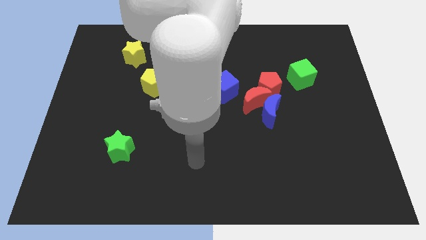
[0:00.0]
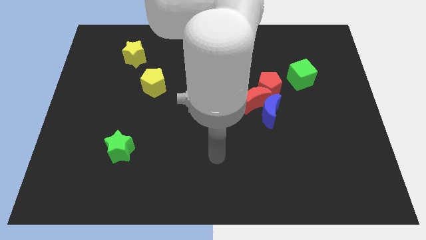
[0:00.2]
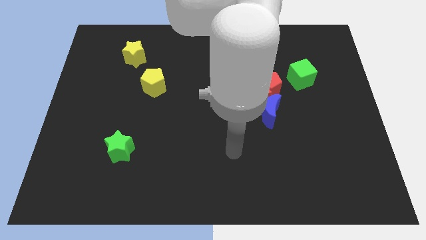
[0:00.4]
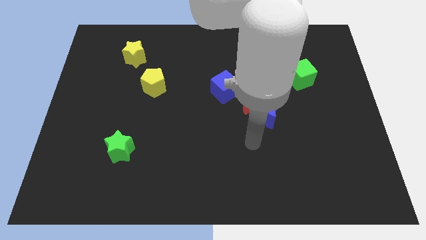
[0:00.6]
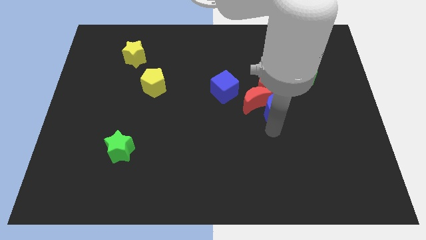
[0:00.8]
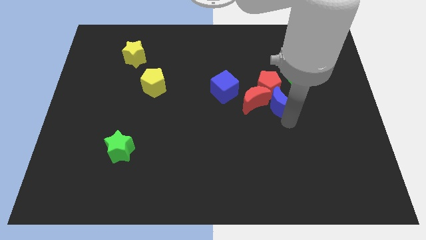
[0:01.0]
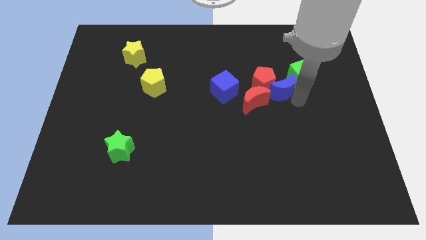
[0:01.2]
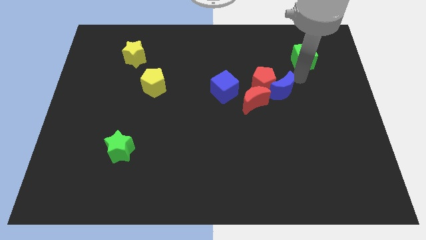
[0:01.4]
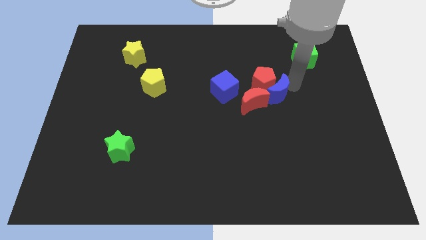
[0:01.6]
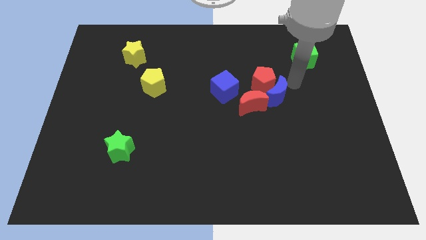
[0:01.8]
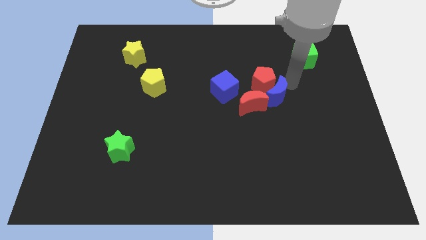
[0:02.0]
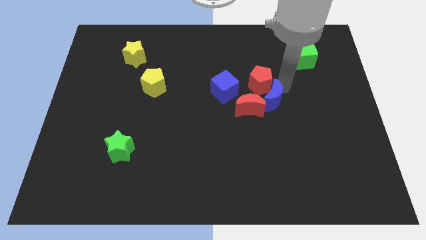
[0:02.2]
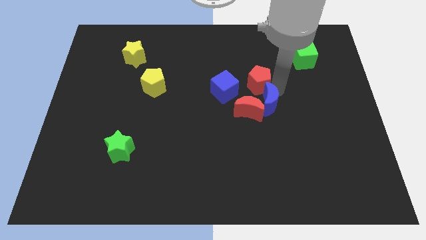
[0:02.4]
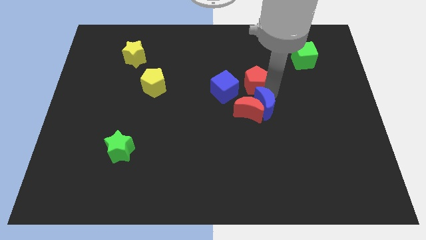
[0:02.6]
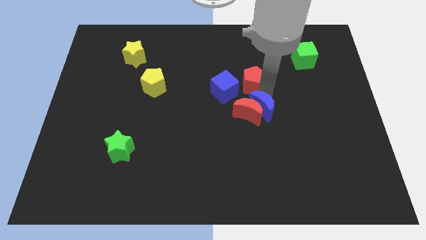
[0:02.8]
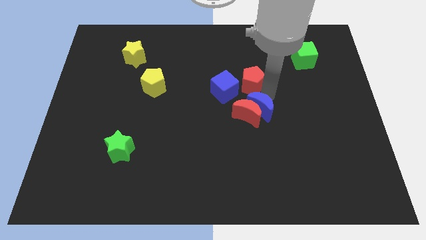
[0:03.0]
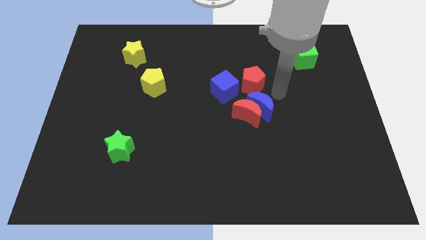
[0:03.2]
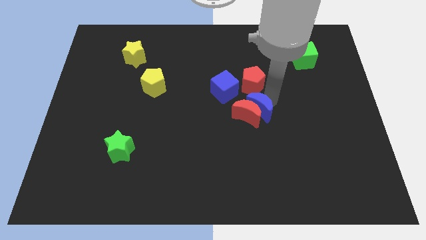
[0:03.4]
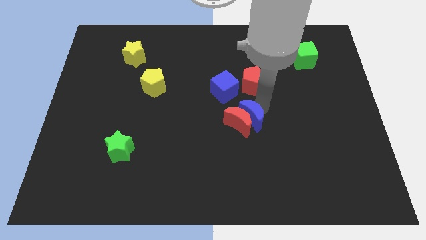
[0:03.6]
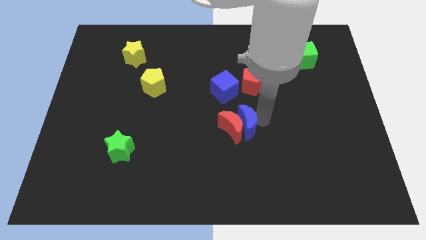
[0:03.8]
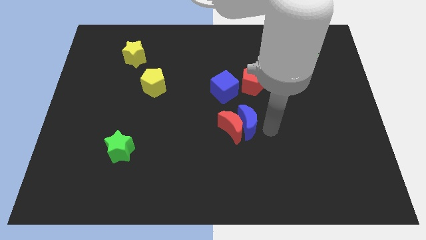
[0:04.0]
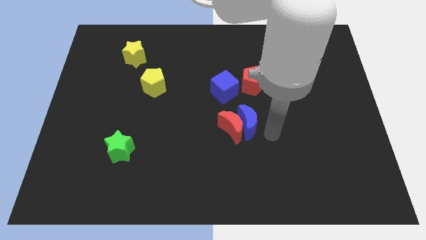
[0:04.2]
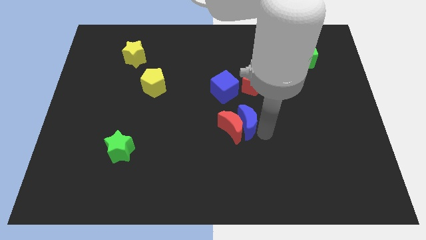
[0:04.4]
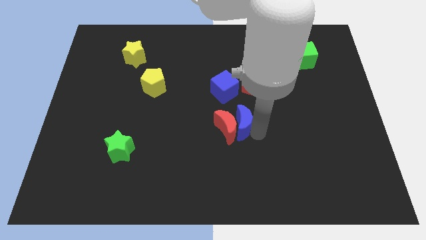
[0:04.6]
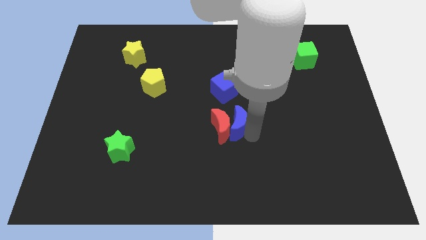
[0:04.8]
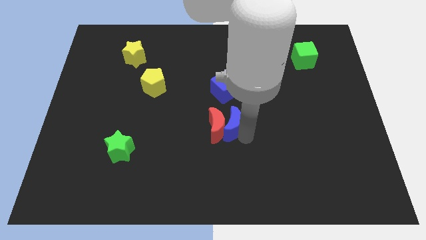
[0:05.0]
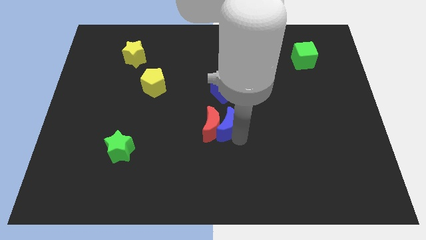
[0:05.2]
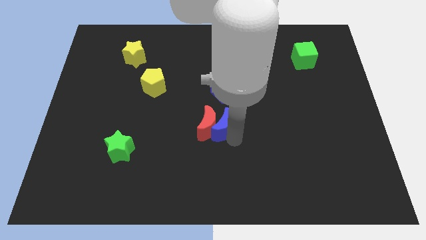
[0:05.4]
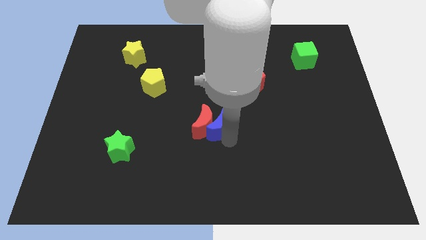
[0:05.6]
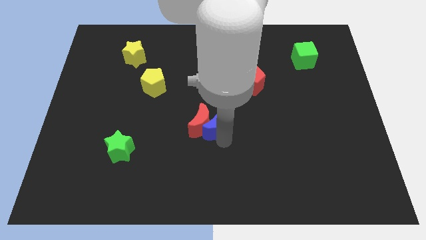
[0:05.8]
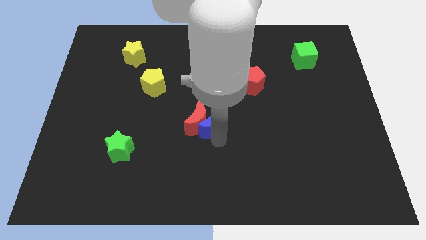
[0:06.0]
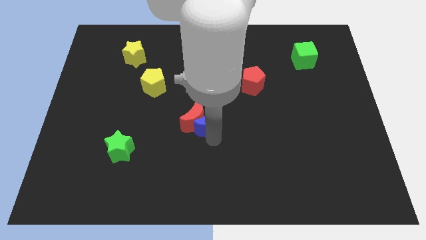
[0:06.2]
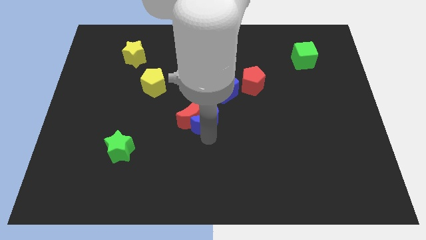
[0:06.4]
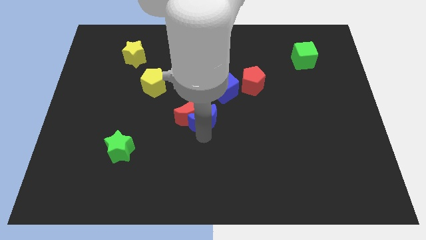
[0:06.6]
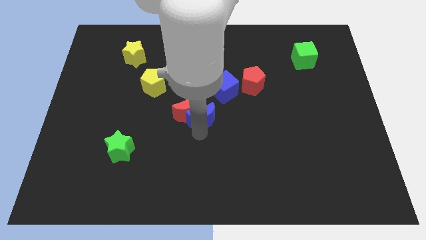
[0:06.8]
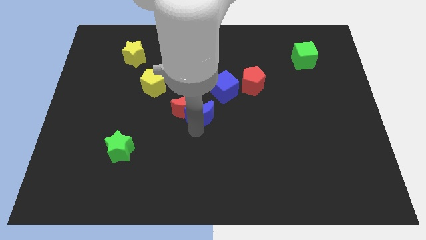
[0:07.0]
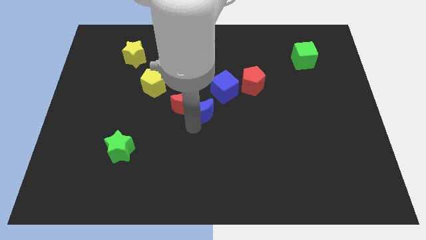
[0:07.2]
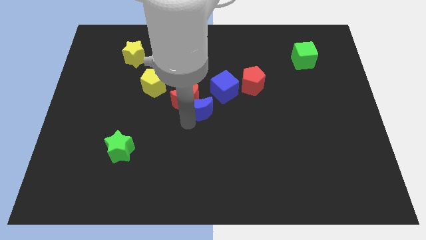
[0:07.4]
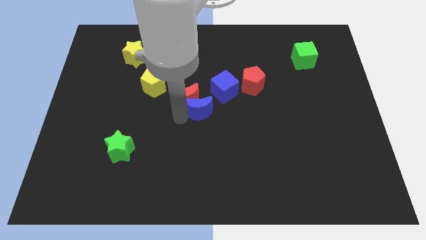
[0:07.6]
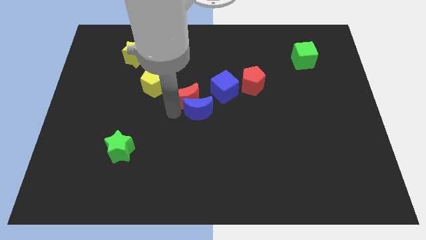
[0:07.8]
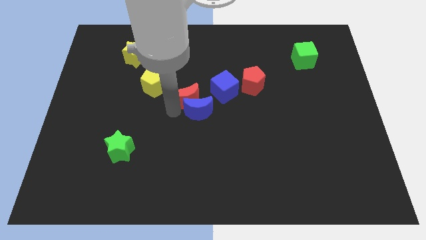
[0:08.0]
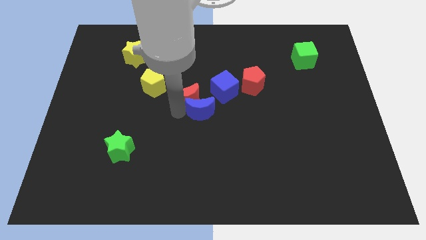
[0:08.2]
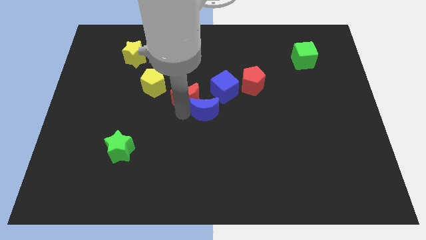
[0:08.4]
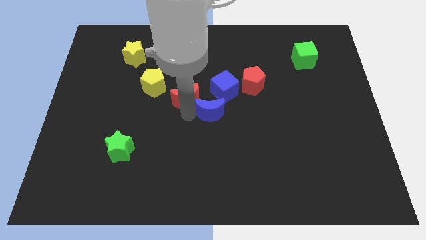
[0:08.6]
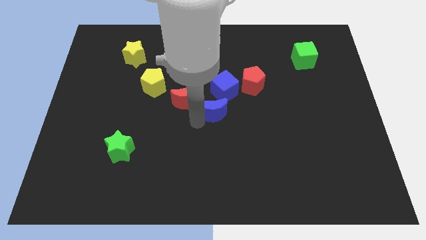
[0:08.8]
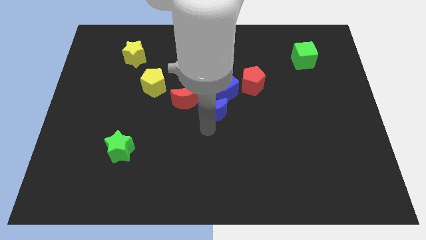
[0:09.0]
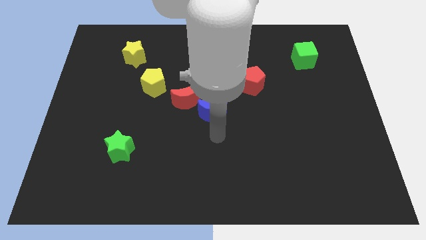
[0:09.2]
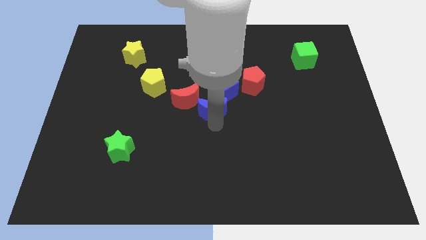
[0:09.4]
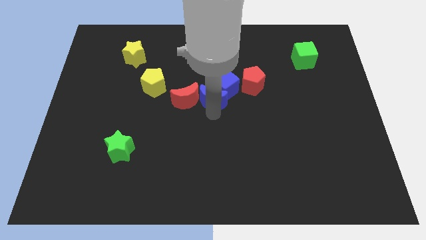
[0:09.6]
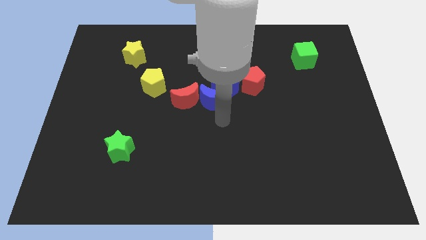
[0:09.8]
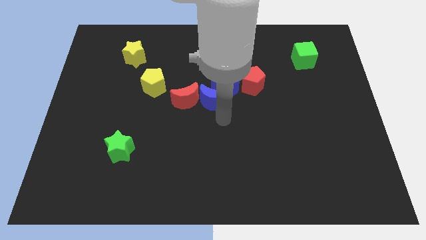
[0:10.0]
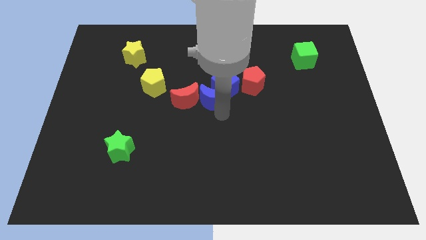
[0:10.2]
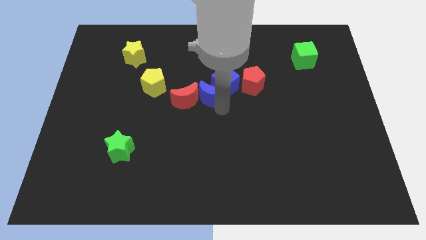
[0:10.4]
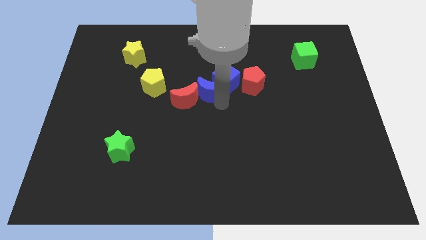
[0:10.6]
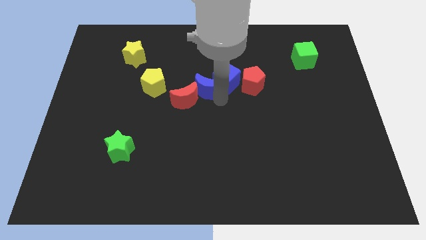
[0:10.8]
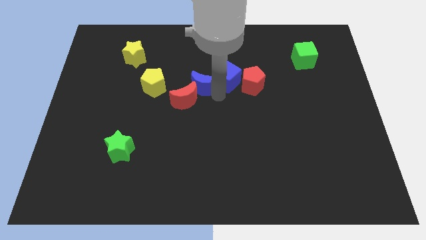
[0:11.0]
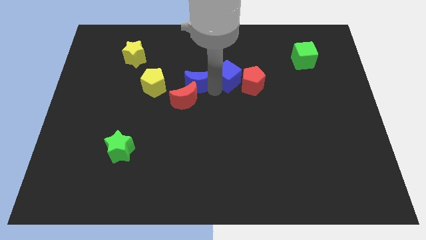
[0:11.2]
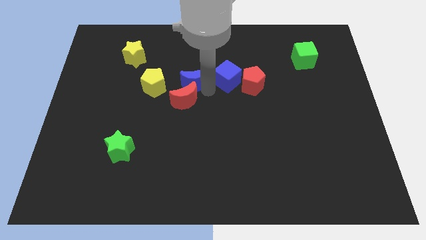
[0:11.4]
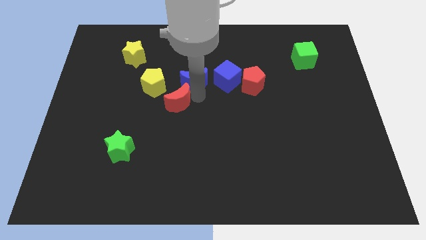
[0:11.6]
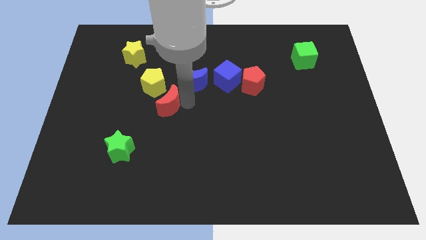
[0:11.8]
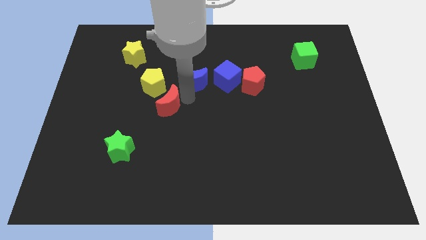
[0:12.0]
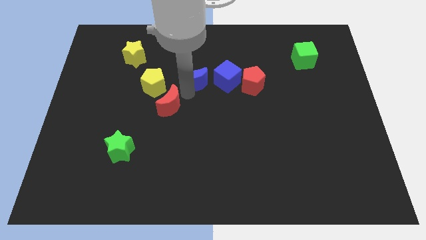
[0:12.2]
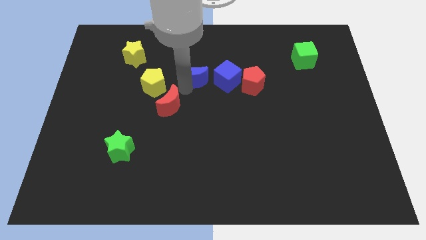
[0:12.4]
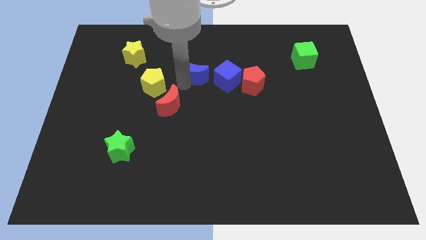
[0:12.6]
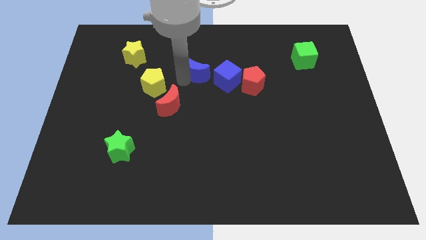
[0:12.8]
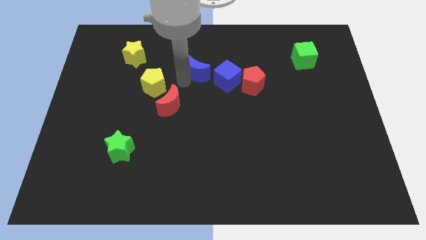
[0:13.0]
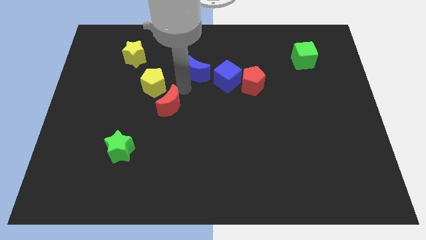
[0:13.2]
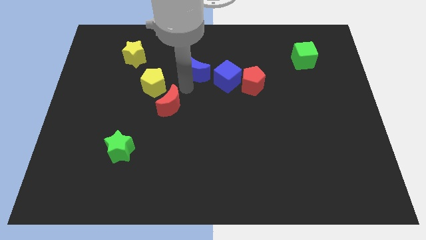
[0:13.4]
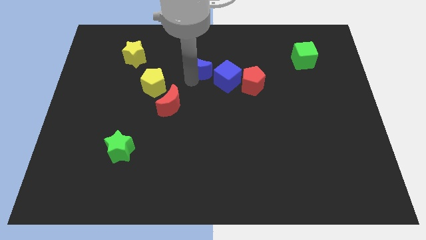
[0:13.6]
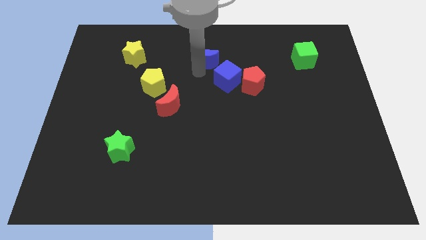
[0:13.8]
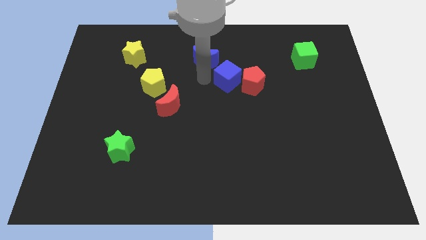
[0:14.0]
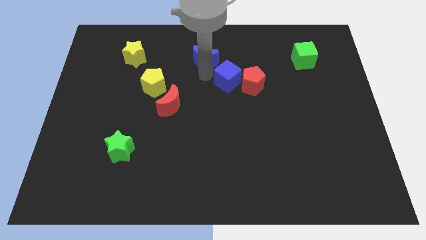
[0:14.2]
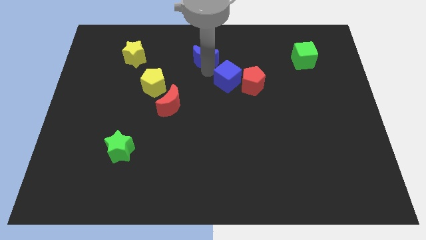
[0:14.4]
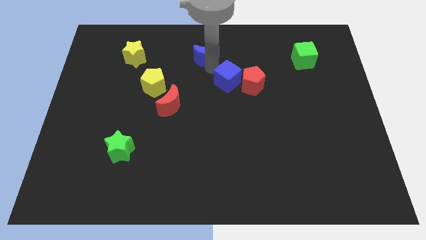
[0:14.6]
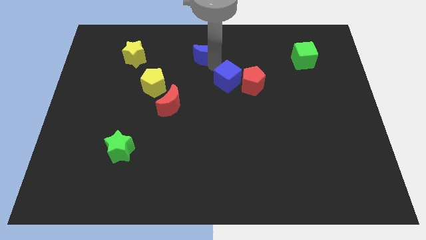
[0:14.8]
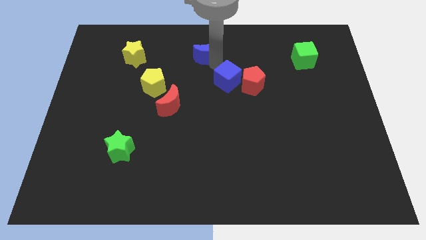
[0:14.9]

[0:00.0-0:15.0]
move the blue moon to the towards your base
